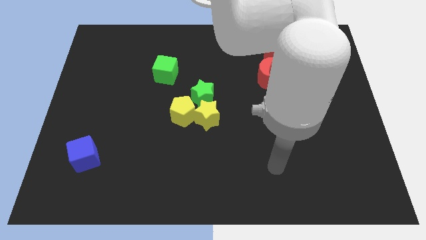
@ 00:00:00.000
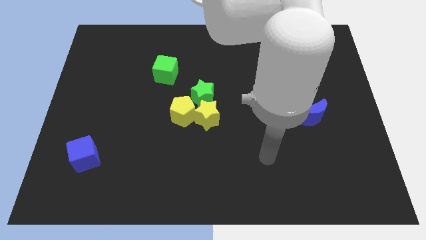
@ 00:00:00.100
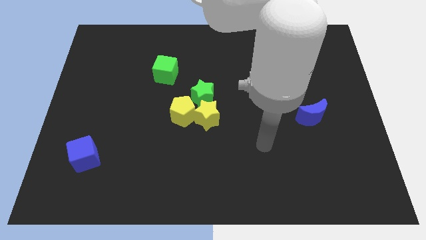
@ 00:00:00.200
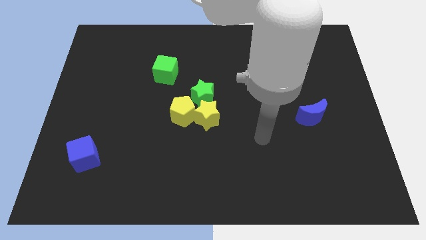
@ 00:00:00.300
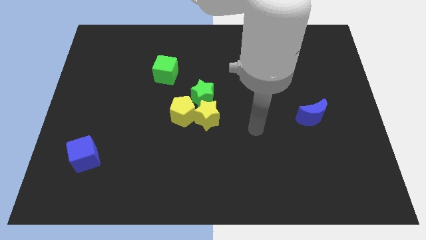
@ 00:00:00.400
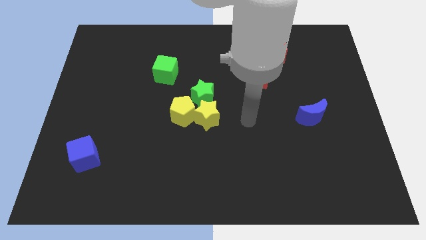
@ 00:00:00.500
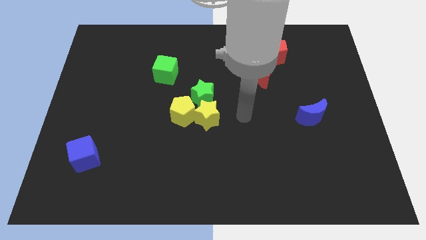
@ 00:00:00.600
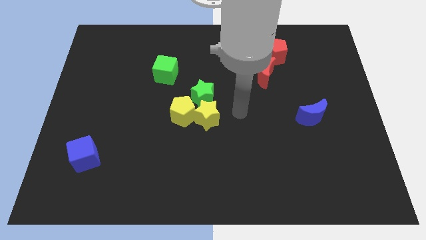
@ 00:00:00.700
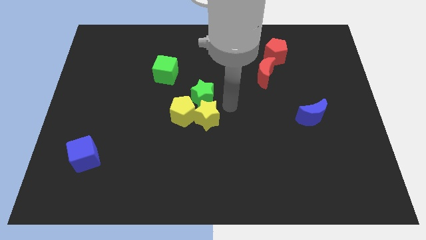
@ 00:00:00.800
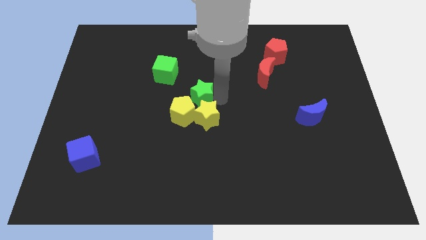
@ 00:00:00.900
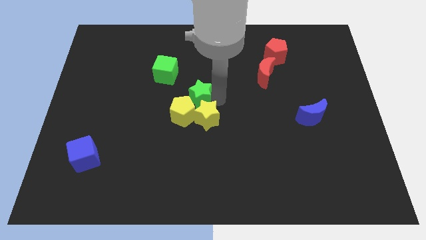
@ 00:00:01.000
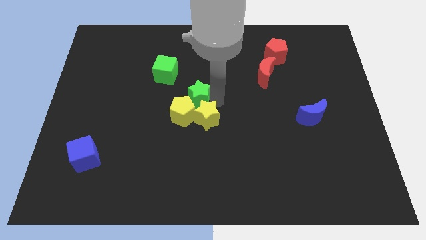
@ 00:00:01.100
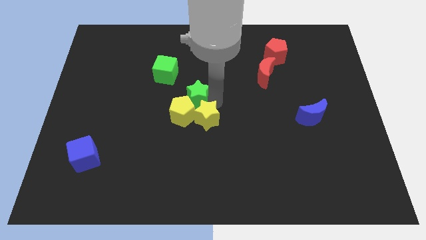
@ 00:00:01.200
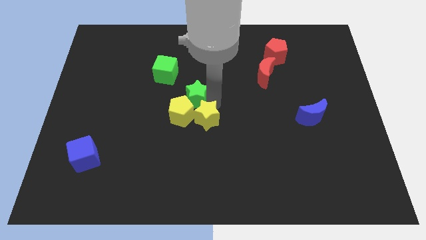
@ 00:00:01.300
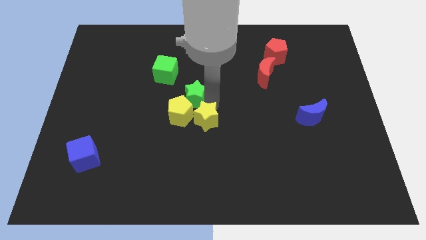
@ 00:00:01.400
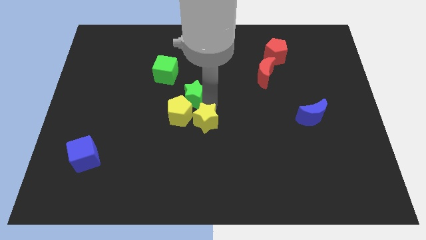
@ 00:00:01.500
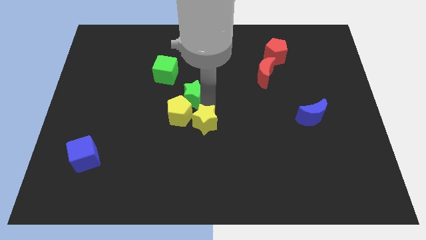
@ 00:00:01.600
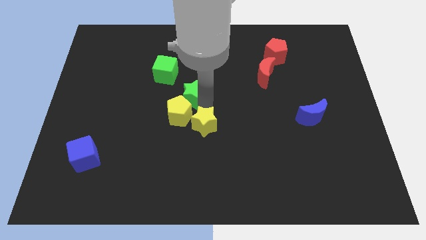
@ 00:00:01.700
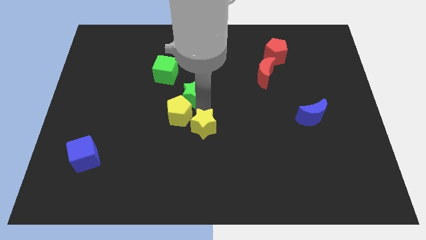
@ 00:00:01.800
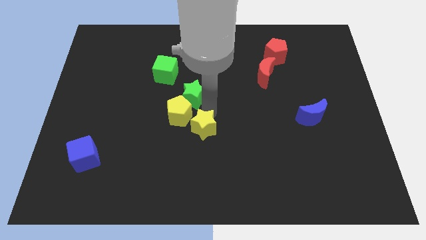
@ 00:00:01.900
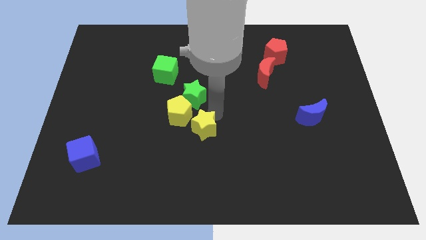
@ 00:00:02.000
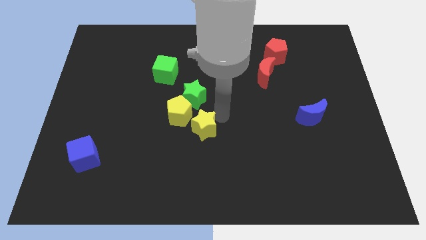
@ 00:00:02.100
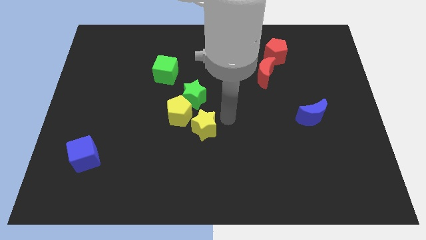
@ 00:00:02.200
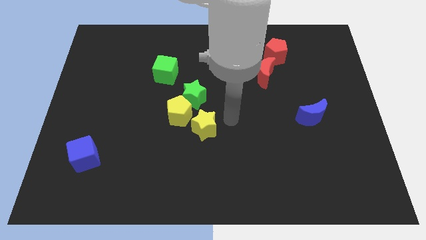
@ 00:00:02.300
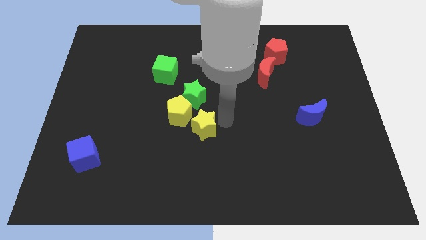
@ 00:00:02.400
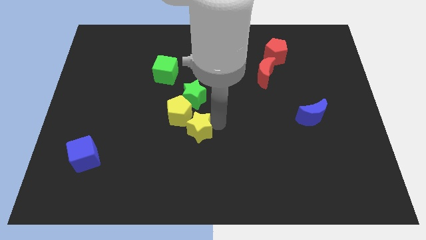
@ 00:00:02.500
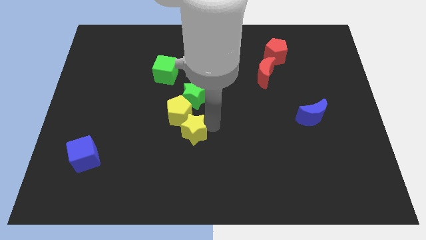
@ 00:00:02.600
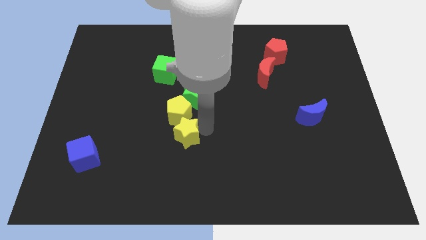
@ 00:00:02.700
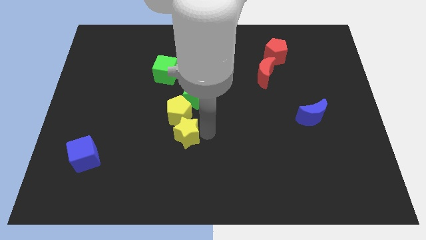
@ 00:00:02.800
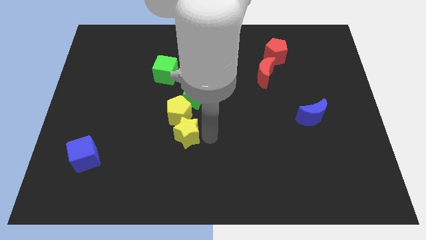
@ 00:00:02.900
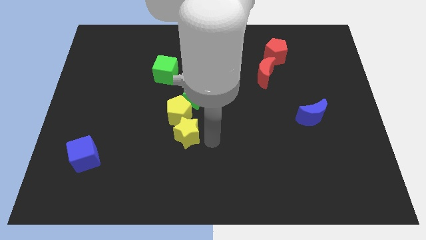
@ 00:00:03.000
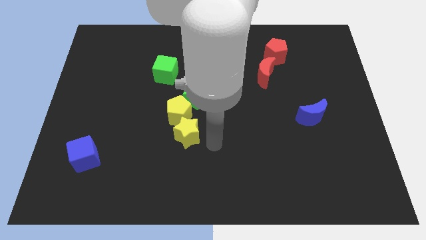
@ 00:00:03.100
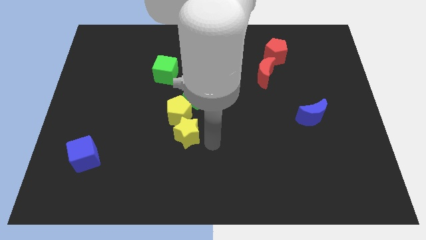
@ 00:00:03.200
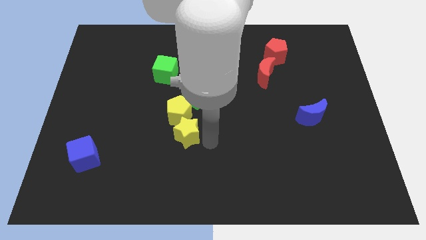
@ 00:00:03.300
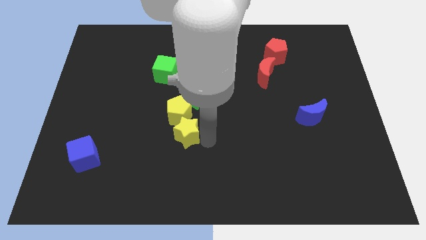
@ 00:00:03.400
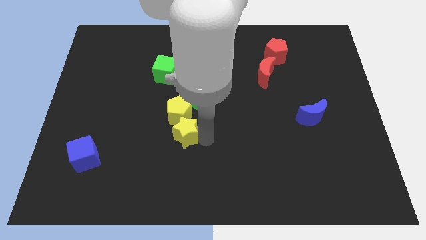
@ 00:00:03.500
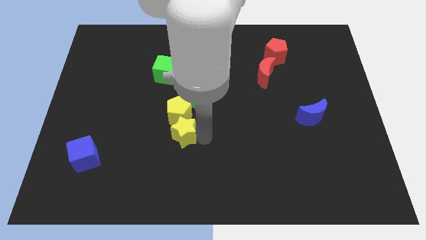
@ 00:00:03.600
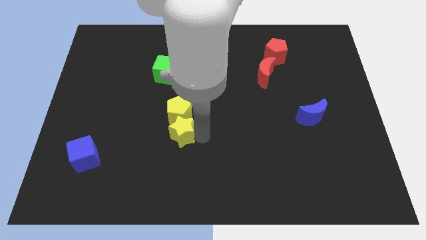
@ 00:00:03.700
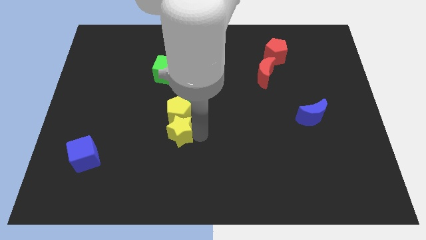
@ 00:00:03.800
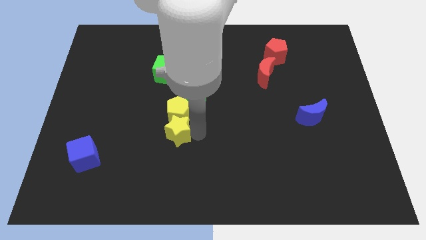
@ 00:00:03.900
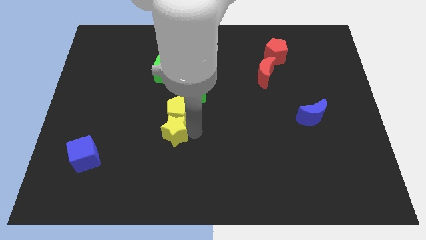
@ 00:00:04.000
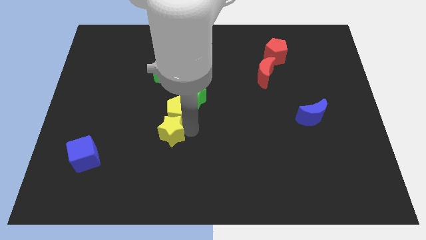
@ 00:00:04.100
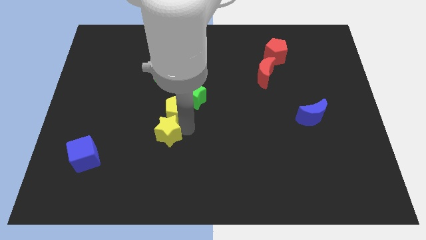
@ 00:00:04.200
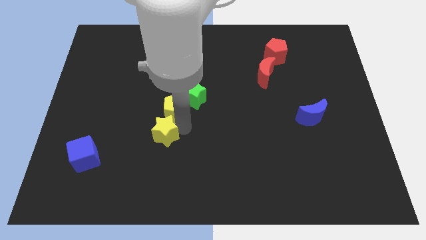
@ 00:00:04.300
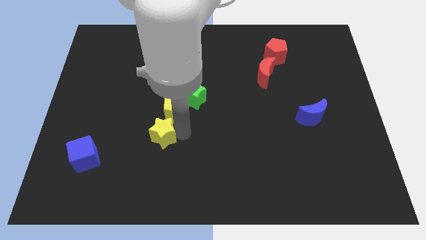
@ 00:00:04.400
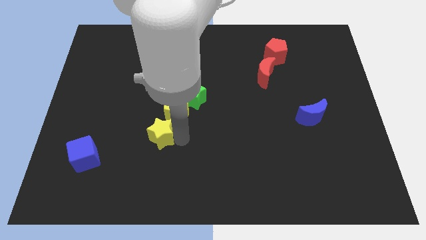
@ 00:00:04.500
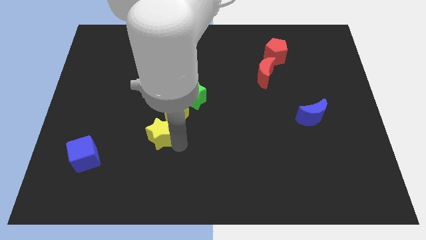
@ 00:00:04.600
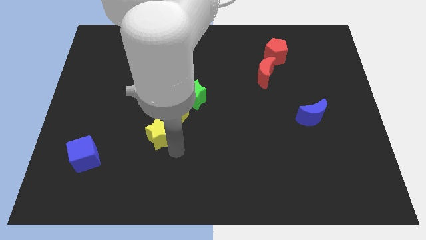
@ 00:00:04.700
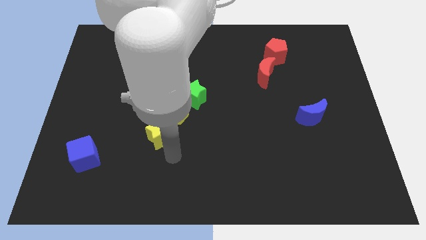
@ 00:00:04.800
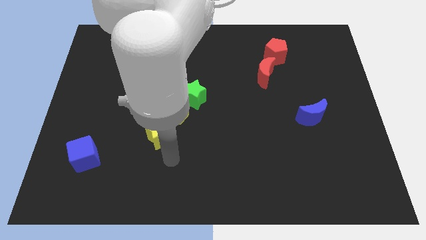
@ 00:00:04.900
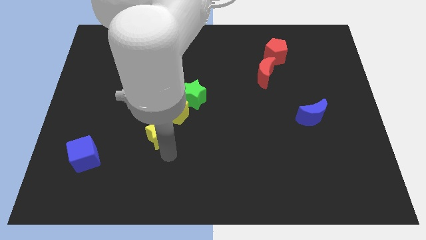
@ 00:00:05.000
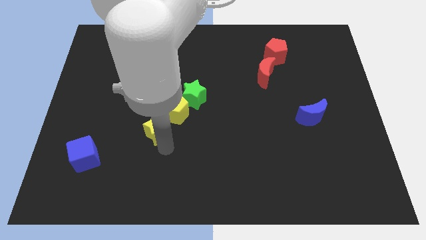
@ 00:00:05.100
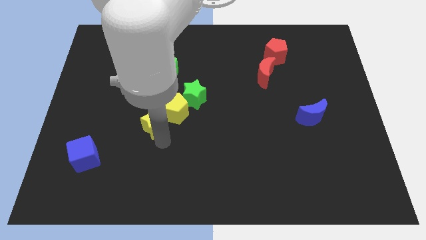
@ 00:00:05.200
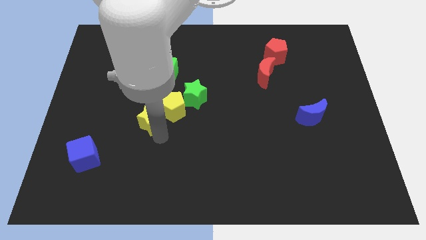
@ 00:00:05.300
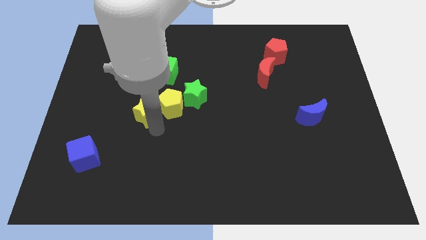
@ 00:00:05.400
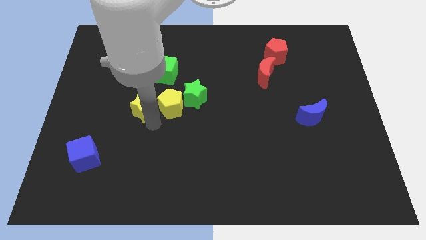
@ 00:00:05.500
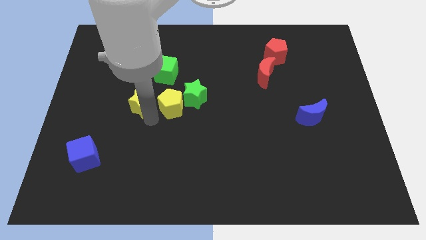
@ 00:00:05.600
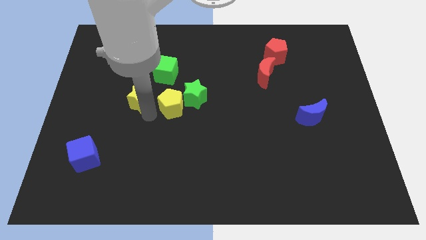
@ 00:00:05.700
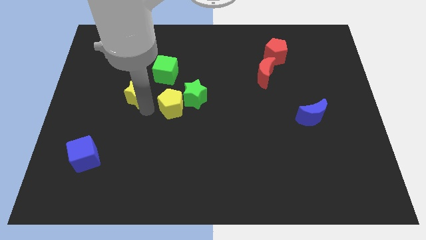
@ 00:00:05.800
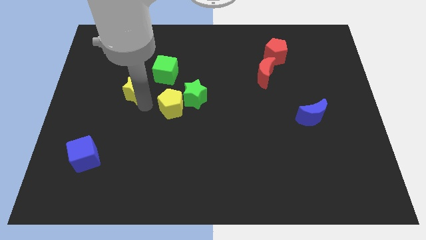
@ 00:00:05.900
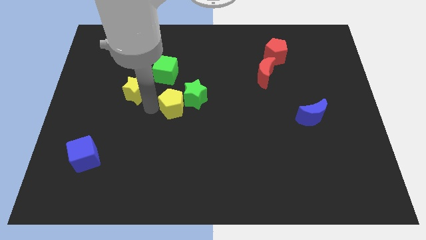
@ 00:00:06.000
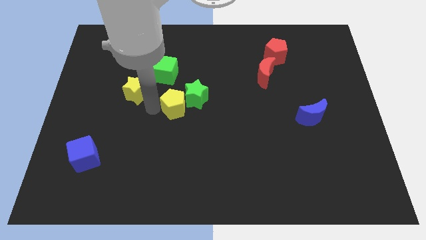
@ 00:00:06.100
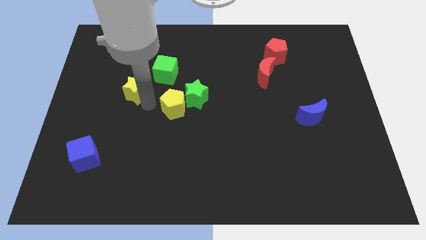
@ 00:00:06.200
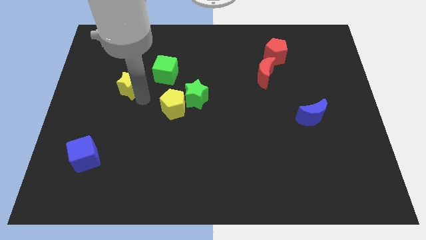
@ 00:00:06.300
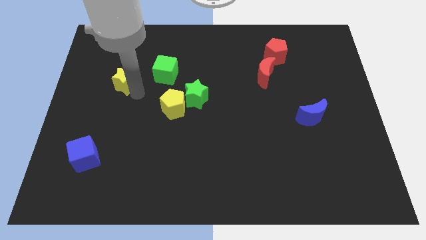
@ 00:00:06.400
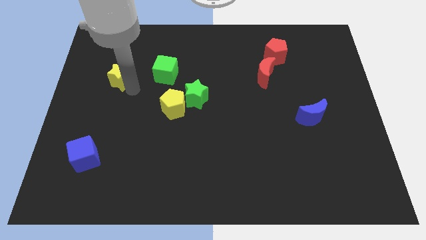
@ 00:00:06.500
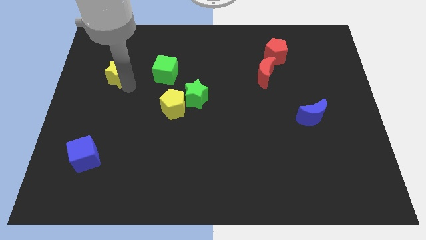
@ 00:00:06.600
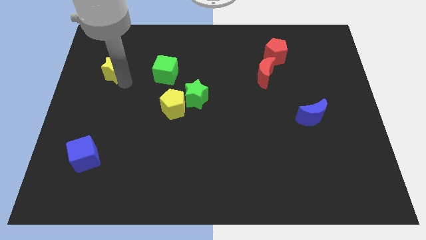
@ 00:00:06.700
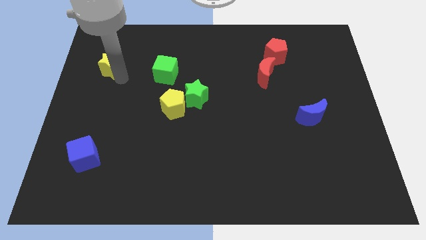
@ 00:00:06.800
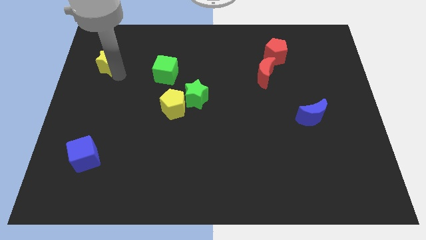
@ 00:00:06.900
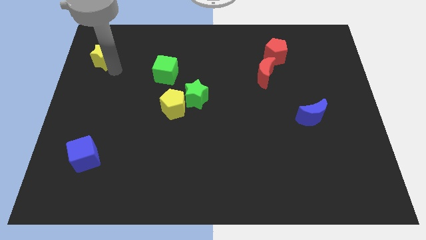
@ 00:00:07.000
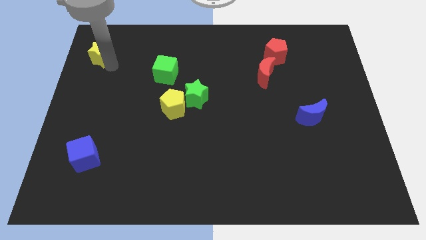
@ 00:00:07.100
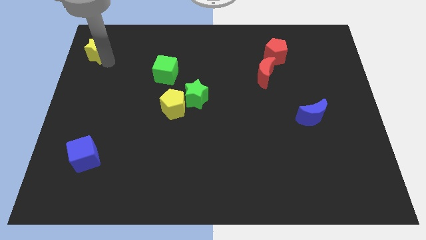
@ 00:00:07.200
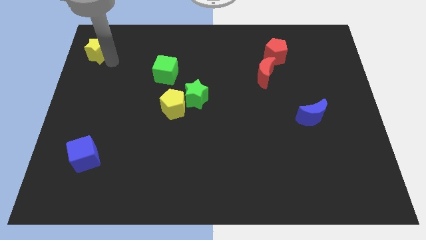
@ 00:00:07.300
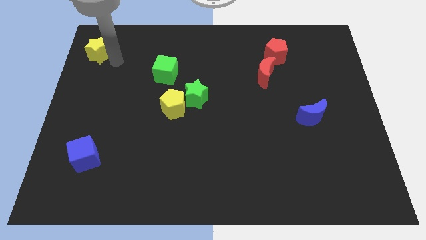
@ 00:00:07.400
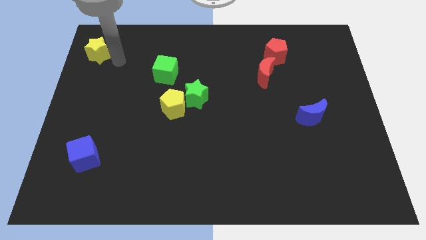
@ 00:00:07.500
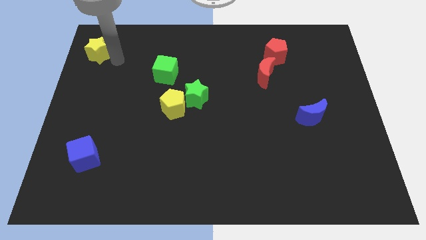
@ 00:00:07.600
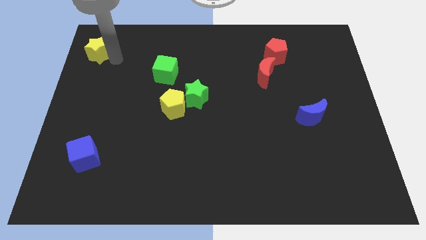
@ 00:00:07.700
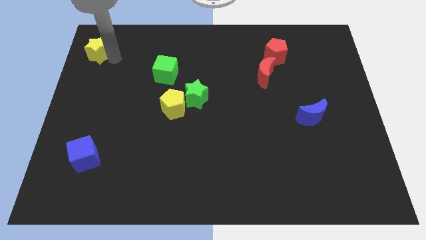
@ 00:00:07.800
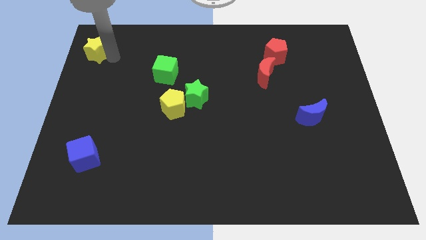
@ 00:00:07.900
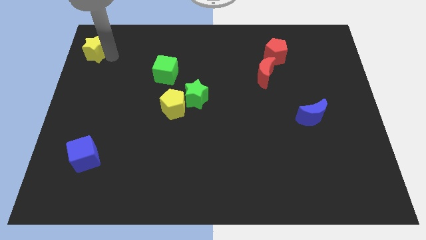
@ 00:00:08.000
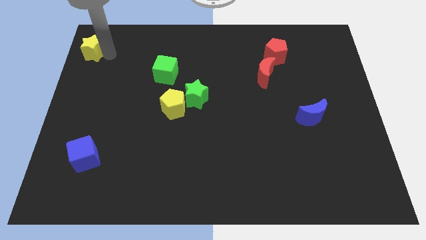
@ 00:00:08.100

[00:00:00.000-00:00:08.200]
put the yellow star to the upper left corner
